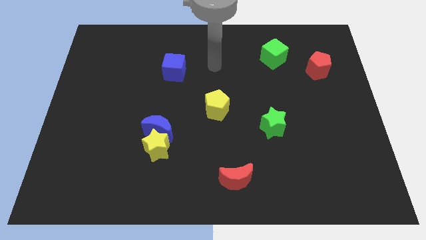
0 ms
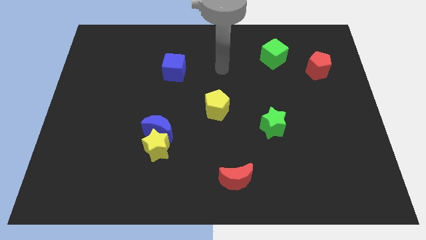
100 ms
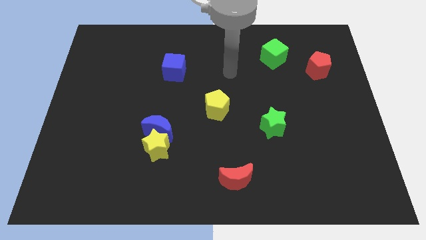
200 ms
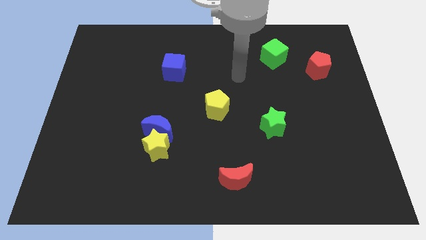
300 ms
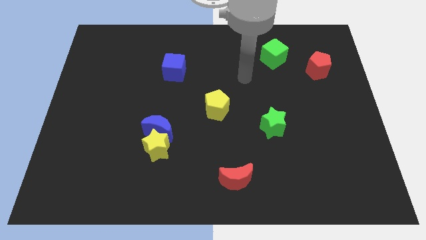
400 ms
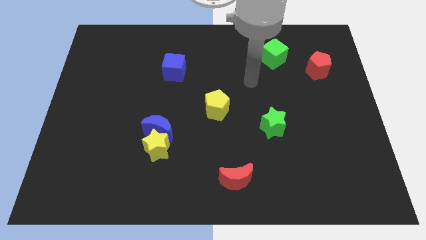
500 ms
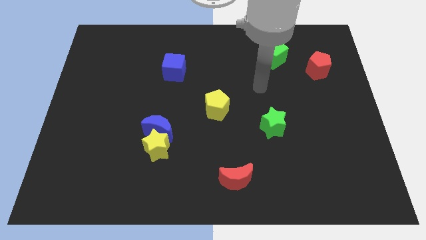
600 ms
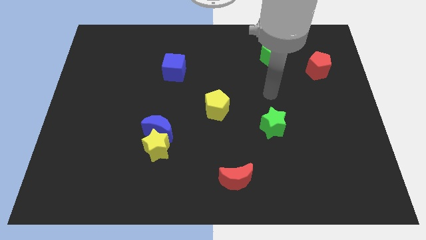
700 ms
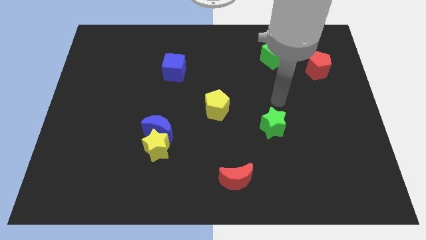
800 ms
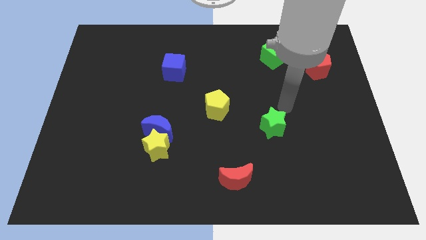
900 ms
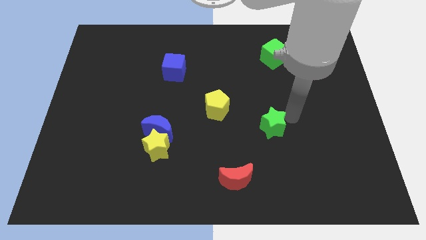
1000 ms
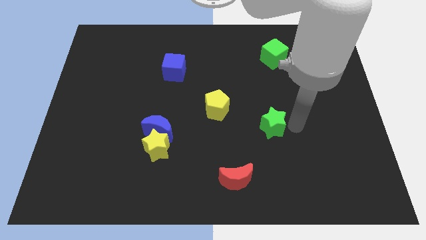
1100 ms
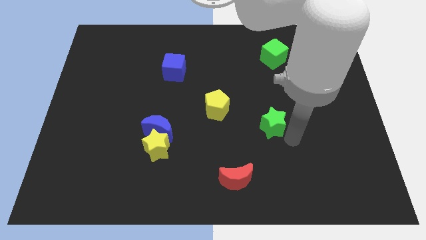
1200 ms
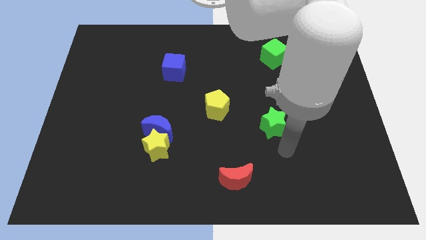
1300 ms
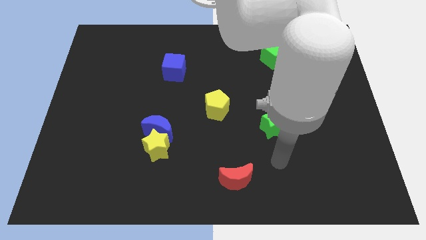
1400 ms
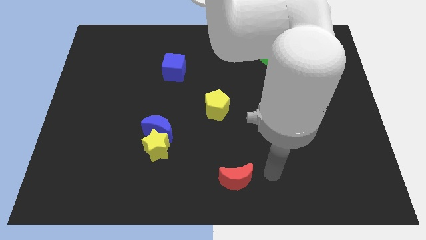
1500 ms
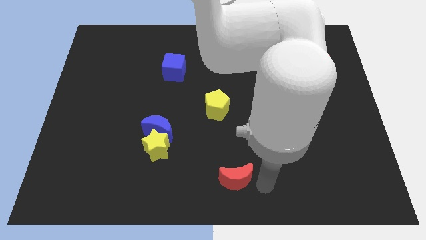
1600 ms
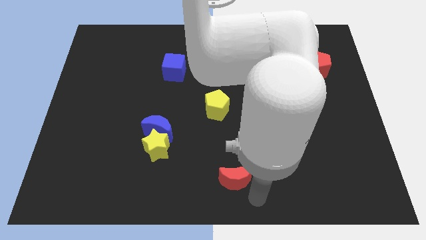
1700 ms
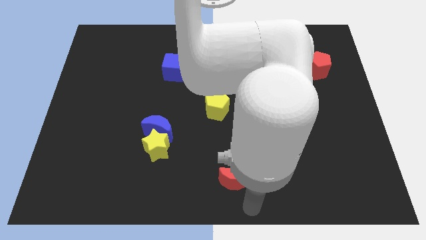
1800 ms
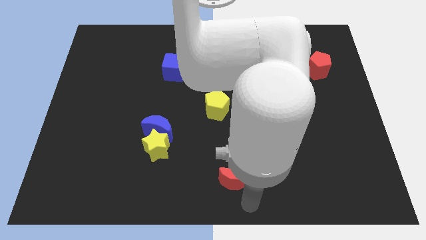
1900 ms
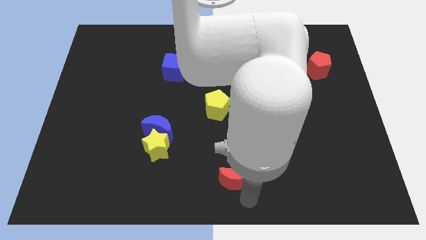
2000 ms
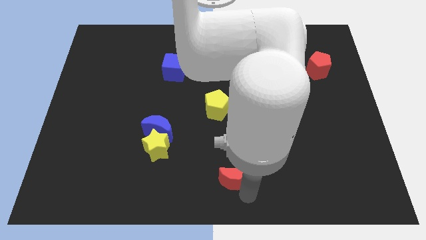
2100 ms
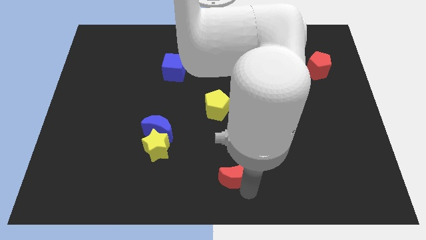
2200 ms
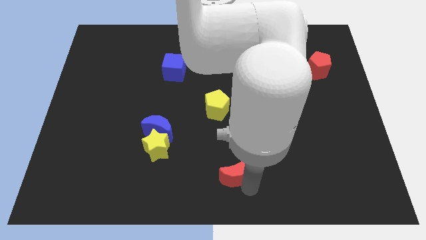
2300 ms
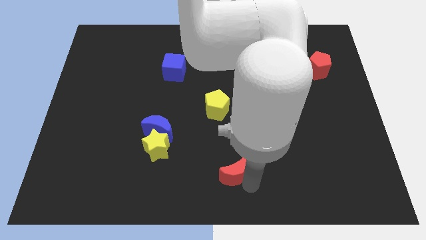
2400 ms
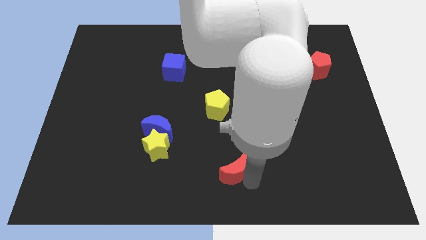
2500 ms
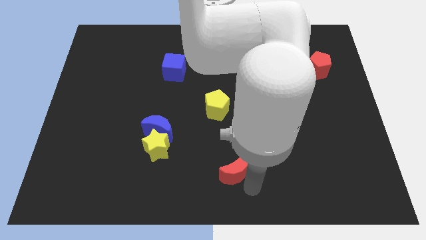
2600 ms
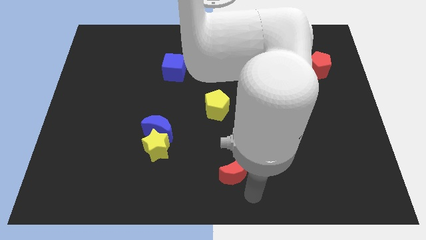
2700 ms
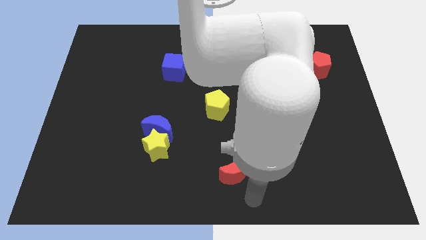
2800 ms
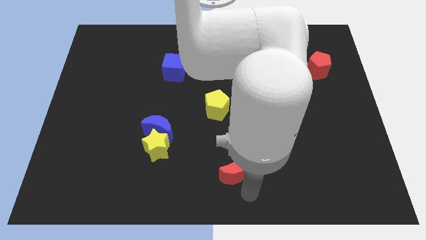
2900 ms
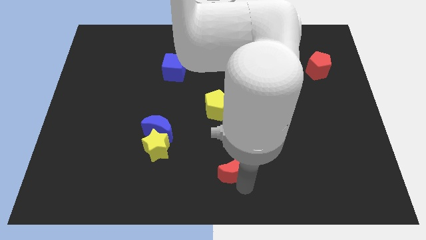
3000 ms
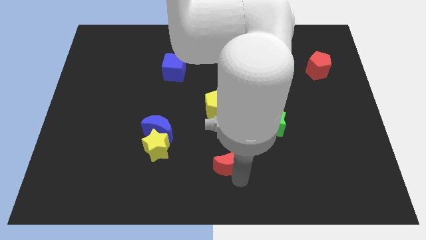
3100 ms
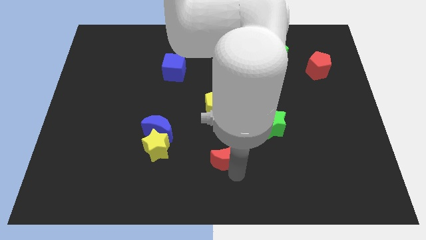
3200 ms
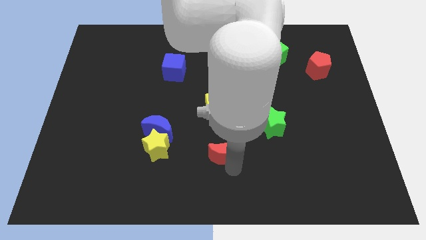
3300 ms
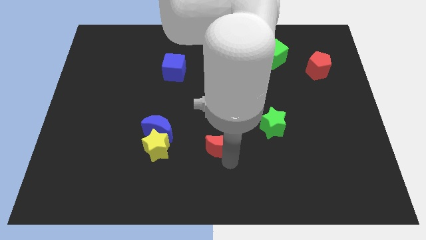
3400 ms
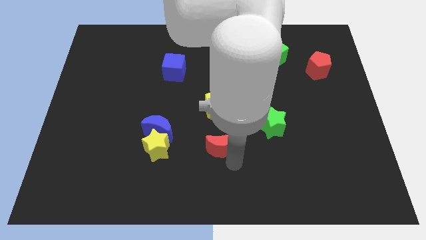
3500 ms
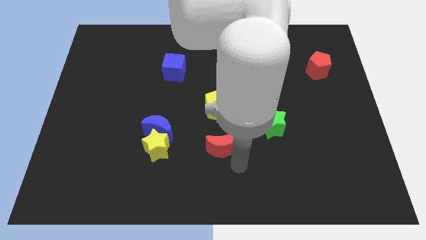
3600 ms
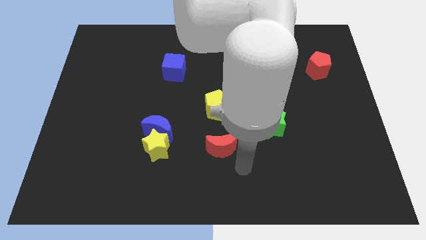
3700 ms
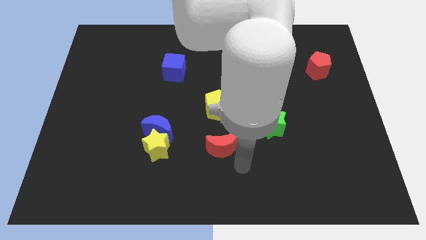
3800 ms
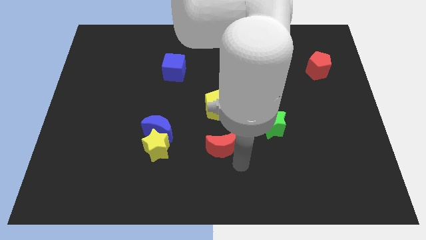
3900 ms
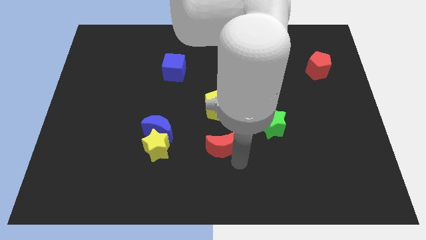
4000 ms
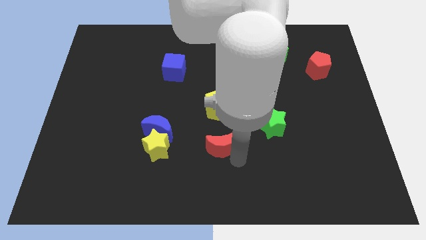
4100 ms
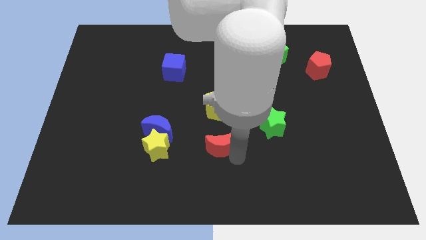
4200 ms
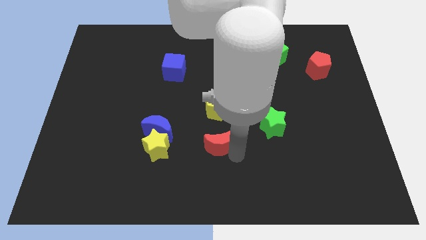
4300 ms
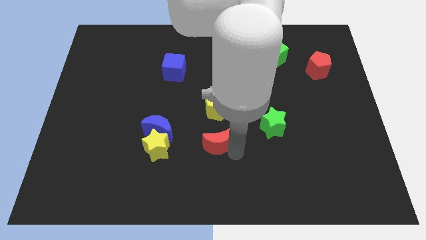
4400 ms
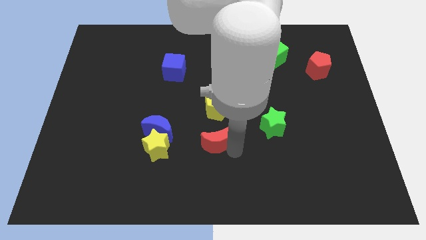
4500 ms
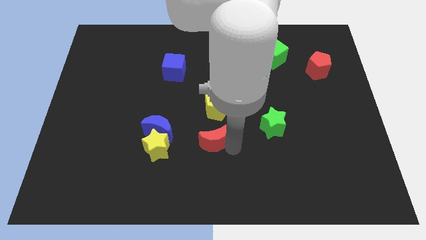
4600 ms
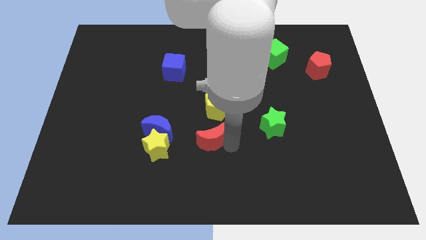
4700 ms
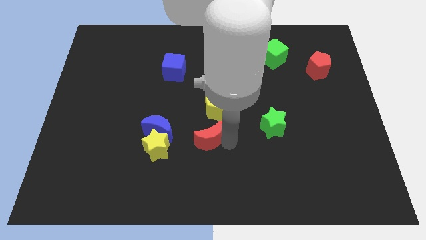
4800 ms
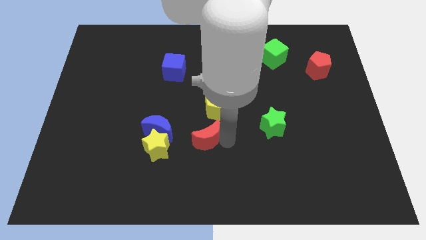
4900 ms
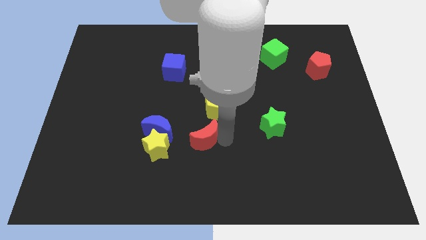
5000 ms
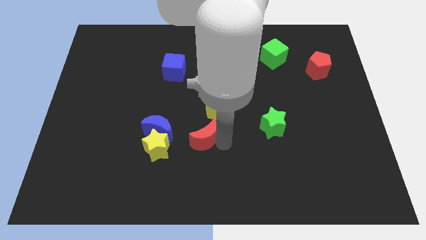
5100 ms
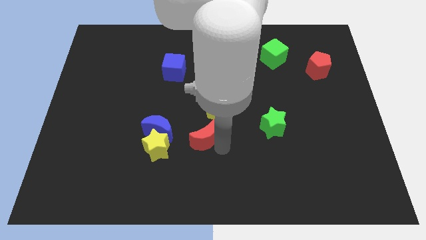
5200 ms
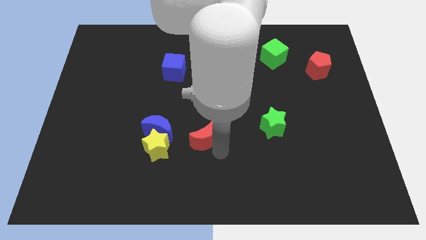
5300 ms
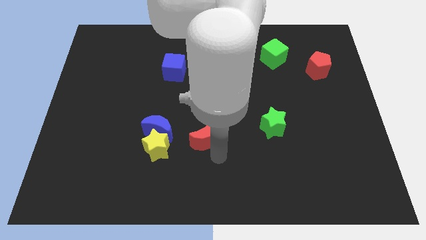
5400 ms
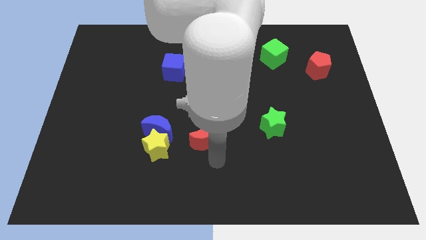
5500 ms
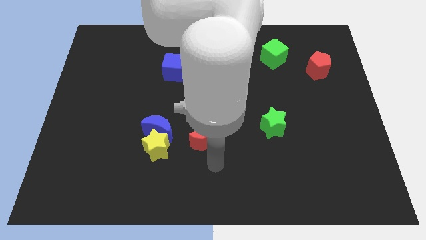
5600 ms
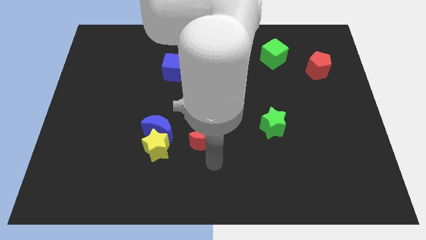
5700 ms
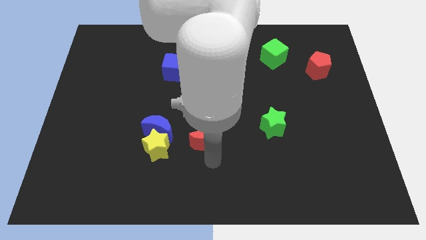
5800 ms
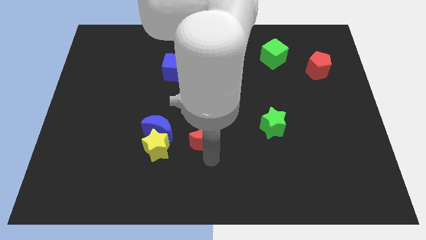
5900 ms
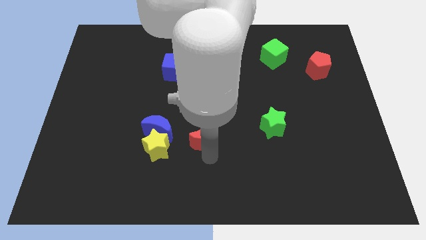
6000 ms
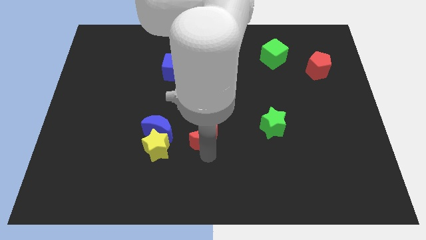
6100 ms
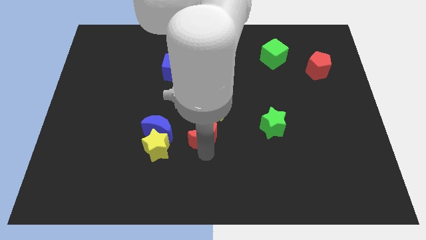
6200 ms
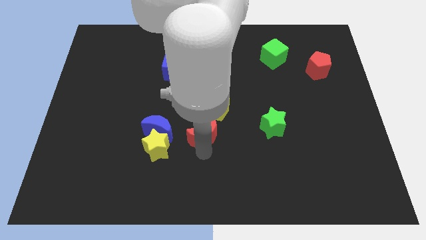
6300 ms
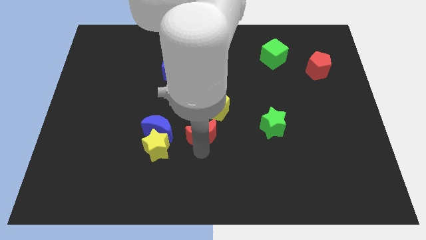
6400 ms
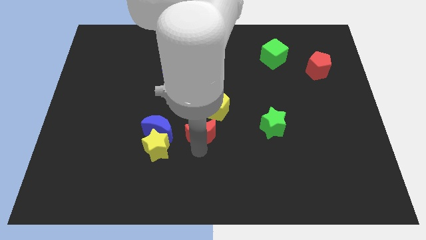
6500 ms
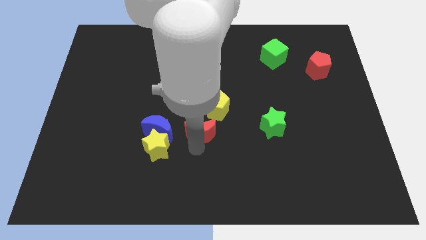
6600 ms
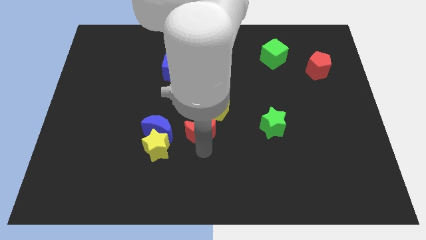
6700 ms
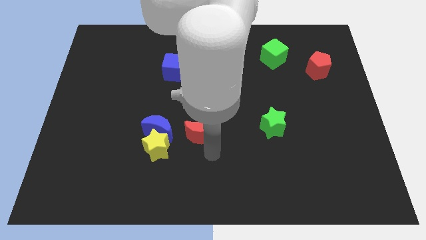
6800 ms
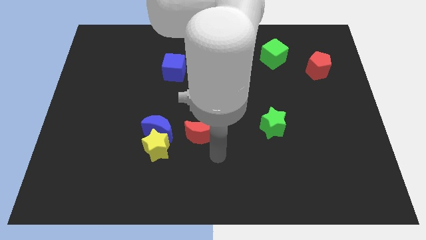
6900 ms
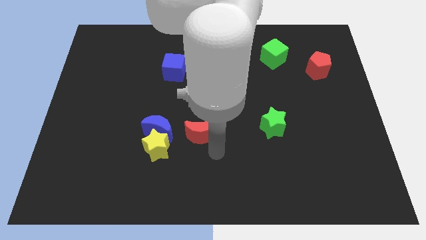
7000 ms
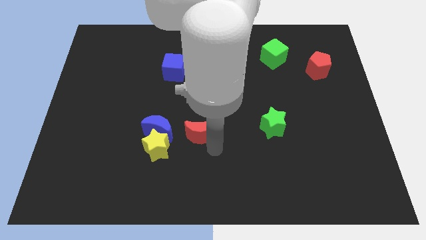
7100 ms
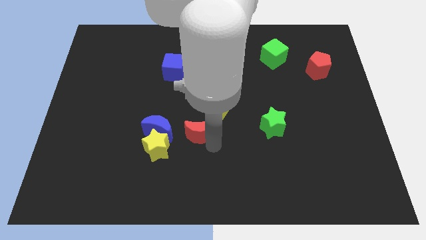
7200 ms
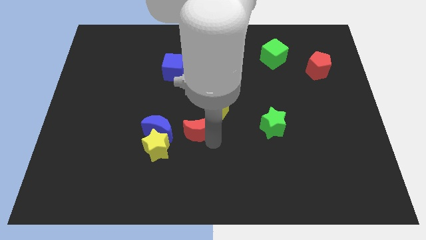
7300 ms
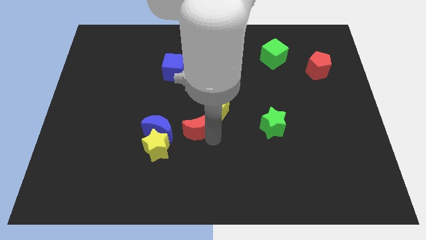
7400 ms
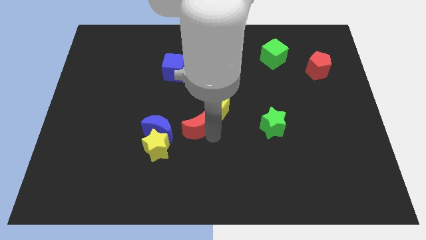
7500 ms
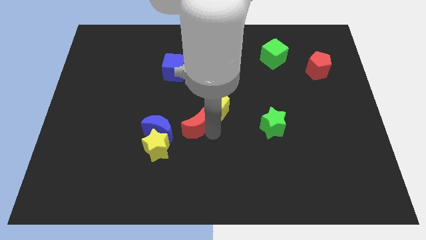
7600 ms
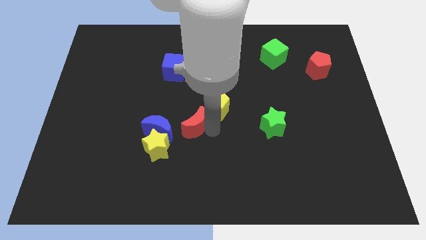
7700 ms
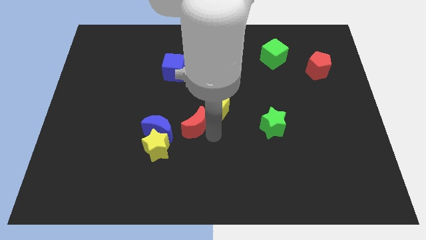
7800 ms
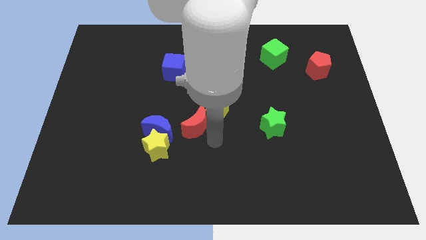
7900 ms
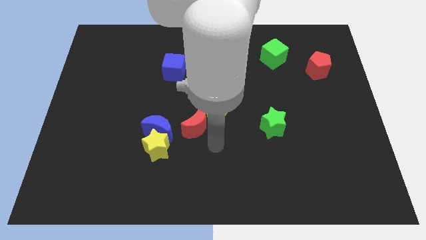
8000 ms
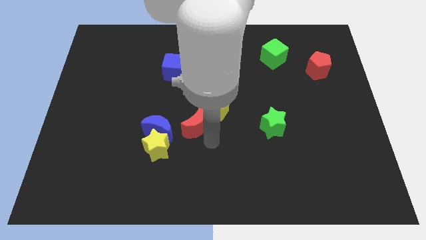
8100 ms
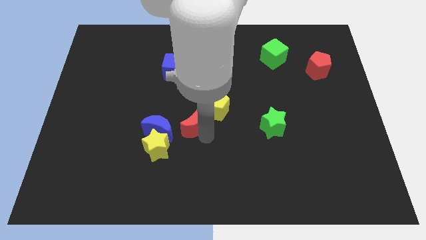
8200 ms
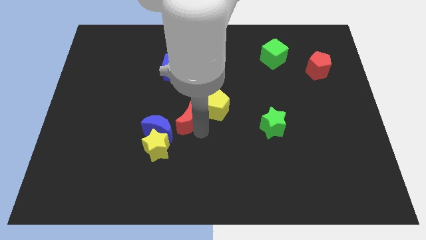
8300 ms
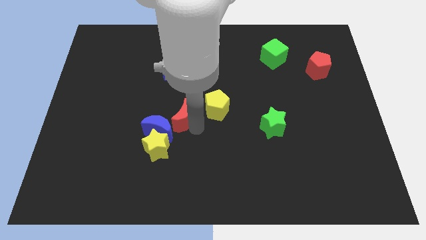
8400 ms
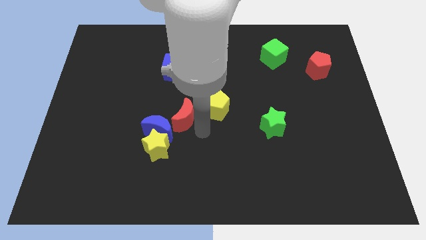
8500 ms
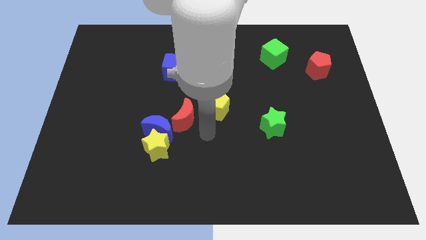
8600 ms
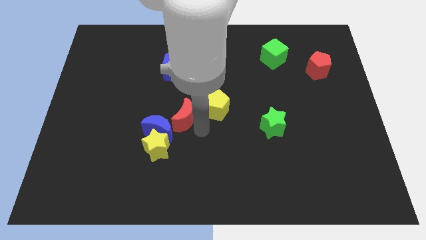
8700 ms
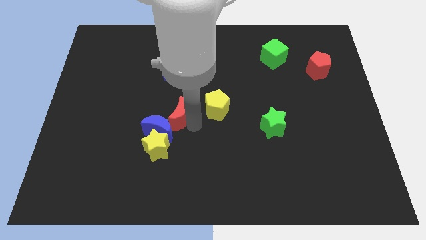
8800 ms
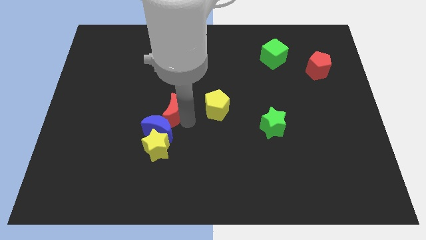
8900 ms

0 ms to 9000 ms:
slide the red moon up and to the left
